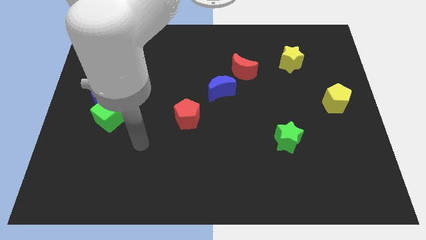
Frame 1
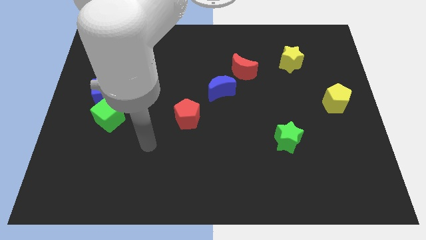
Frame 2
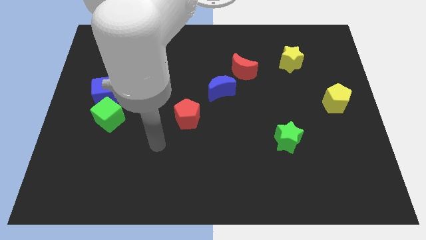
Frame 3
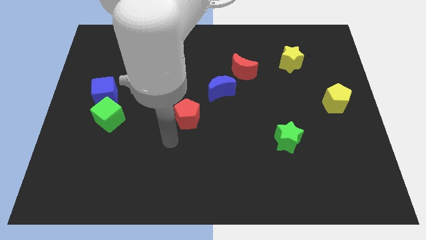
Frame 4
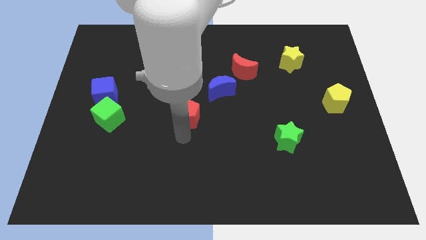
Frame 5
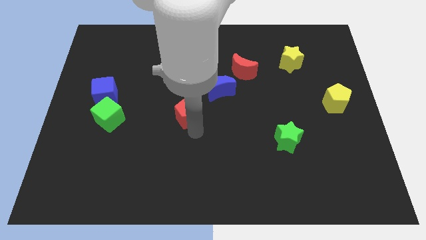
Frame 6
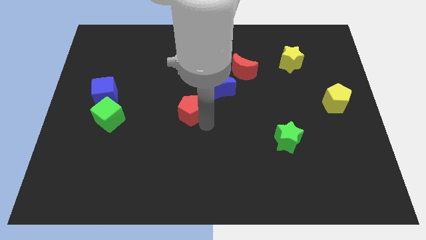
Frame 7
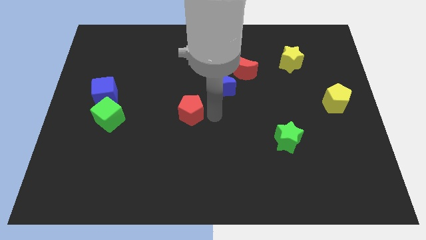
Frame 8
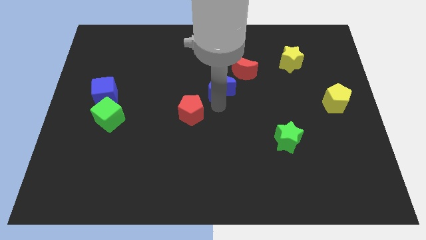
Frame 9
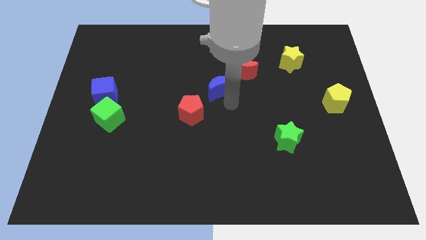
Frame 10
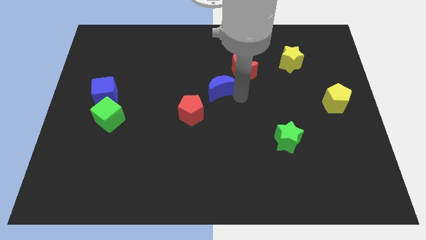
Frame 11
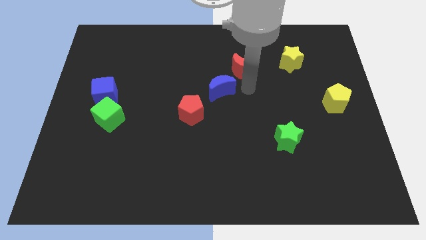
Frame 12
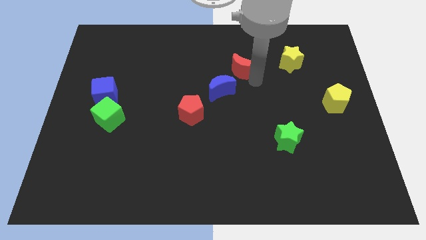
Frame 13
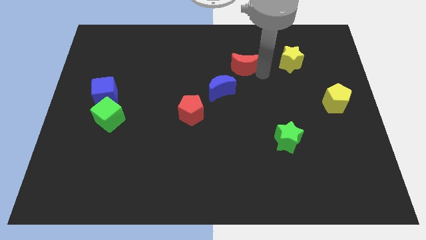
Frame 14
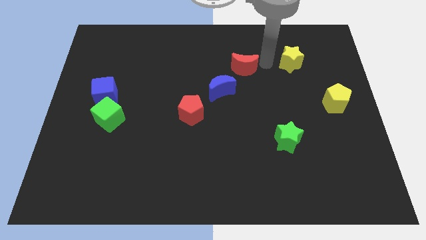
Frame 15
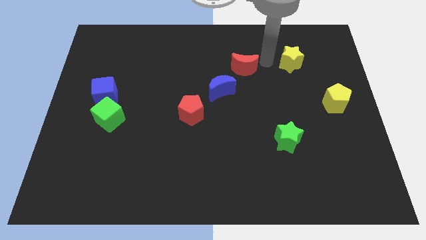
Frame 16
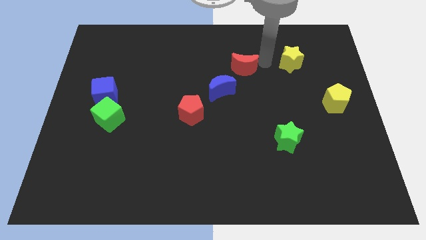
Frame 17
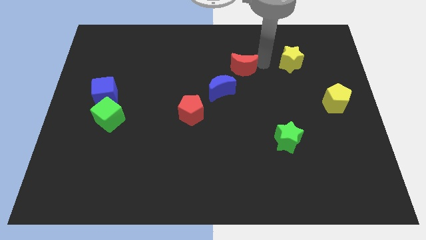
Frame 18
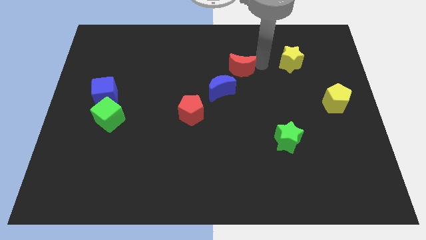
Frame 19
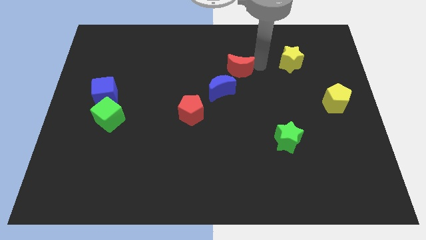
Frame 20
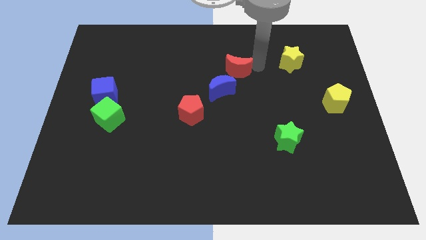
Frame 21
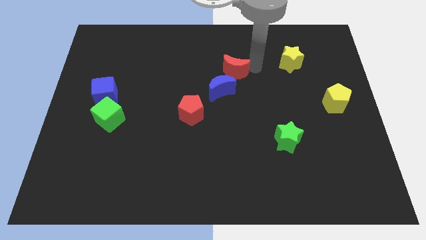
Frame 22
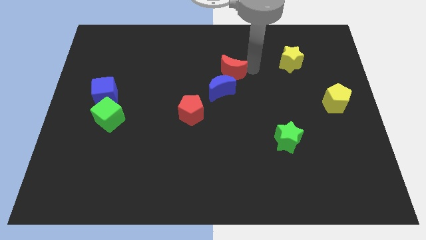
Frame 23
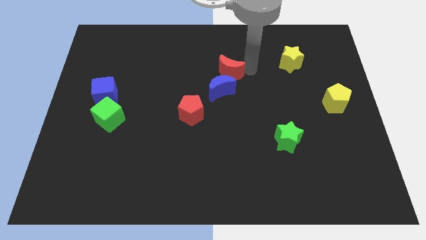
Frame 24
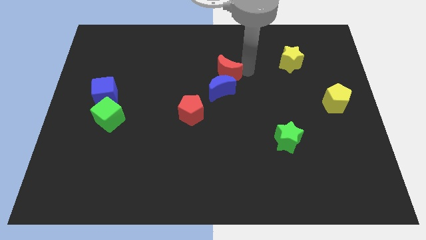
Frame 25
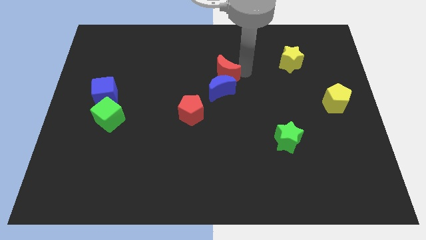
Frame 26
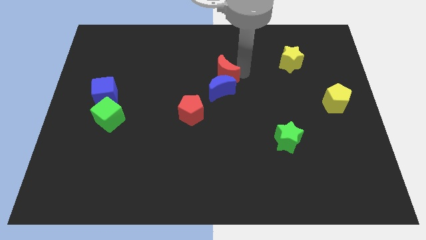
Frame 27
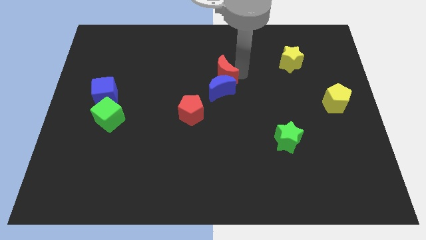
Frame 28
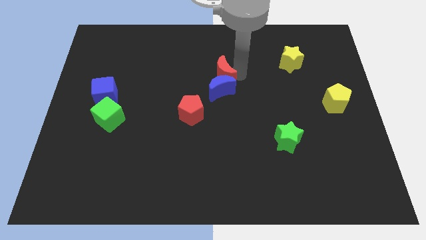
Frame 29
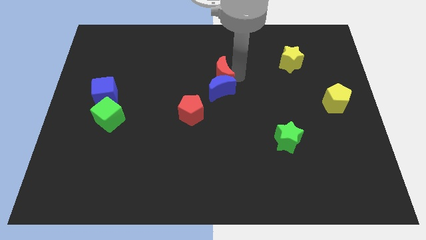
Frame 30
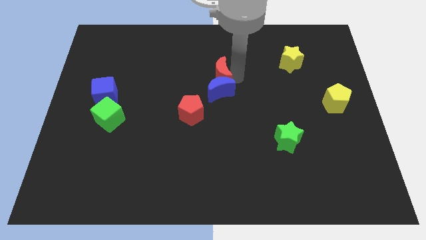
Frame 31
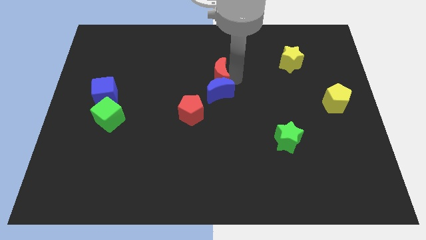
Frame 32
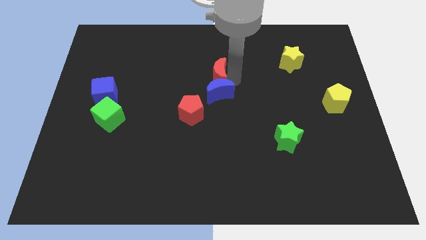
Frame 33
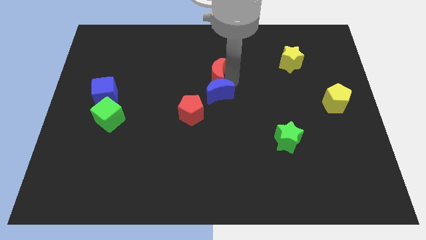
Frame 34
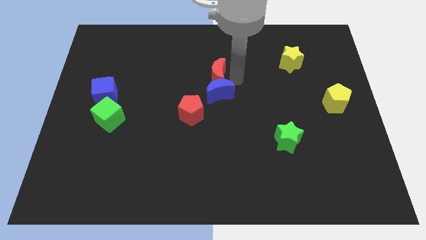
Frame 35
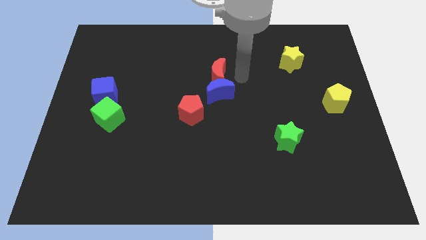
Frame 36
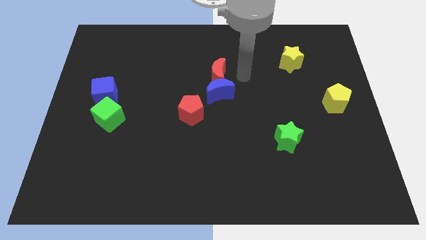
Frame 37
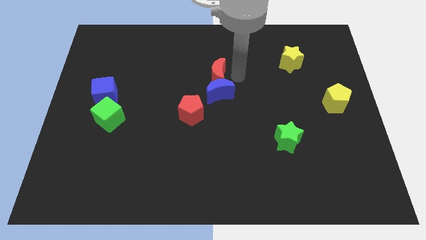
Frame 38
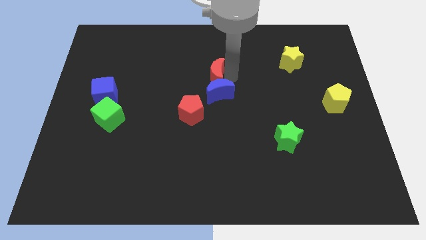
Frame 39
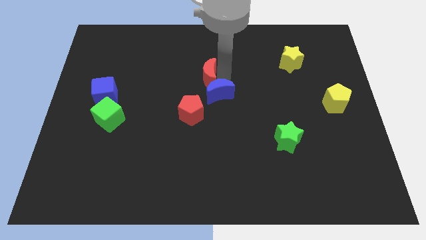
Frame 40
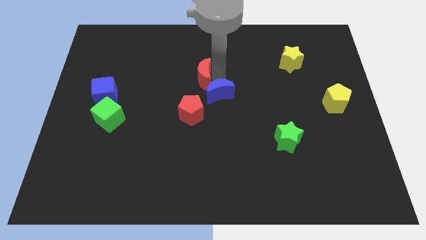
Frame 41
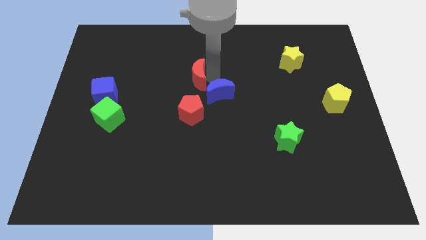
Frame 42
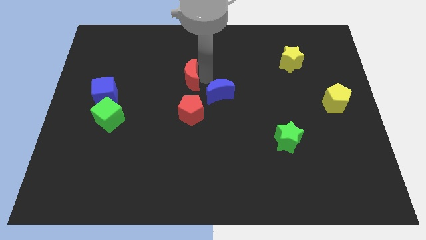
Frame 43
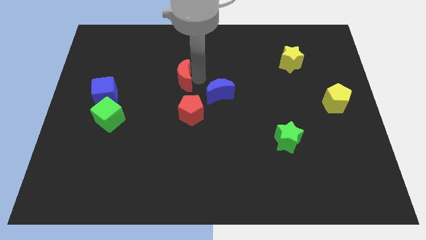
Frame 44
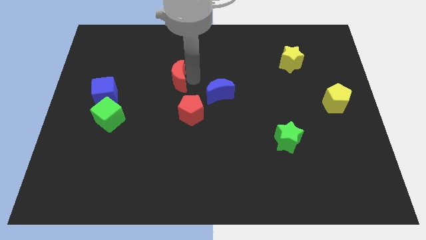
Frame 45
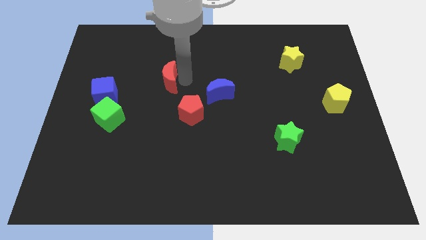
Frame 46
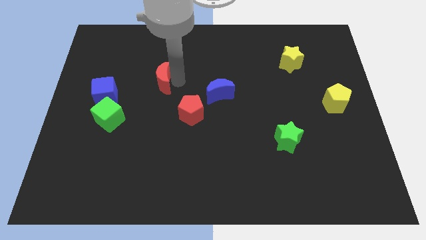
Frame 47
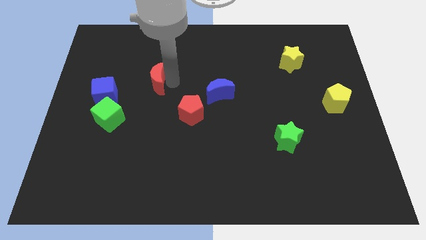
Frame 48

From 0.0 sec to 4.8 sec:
move the red moon left

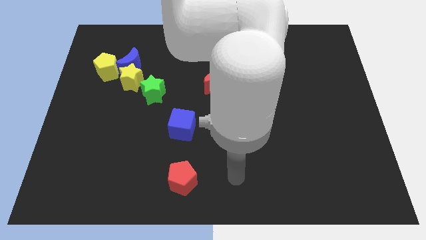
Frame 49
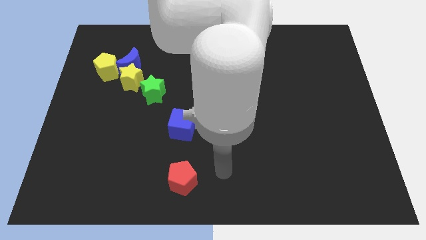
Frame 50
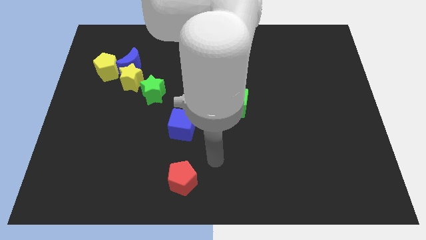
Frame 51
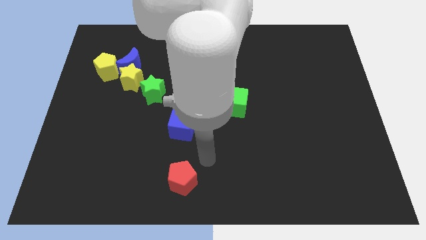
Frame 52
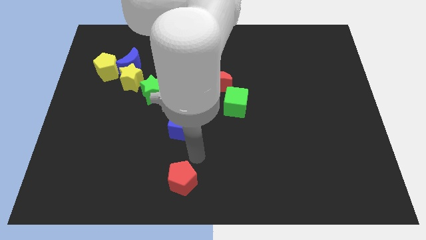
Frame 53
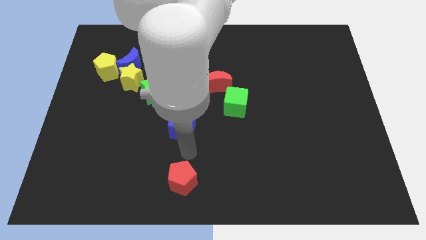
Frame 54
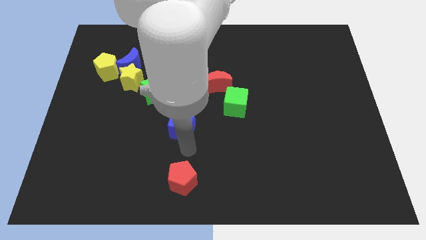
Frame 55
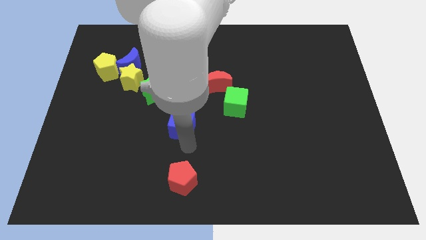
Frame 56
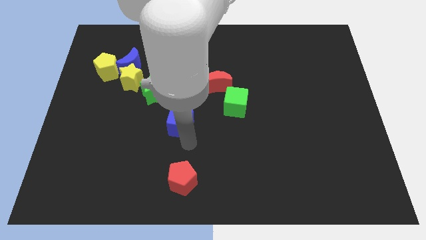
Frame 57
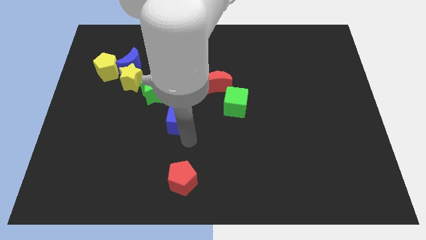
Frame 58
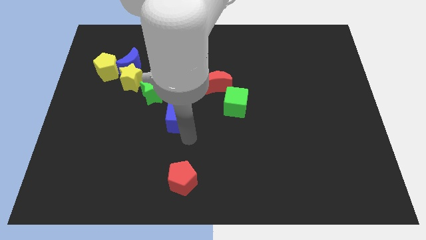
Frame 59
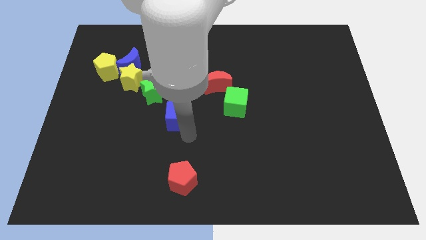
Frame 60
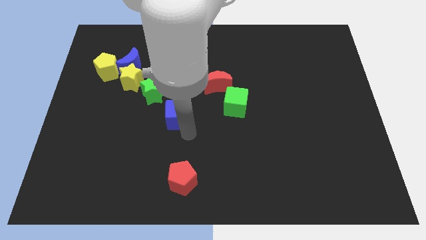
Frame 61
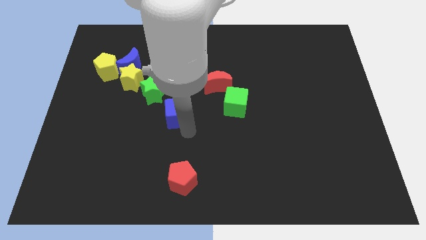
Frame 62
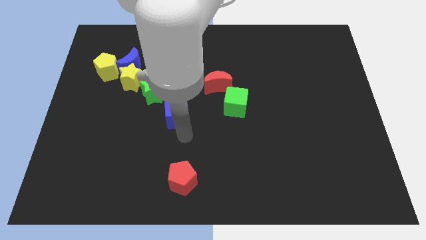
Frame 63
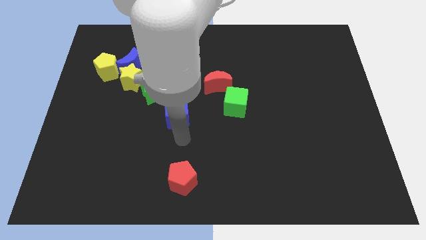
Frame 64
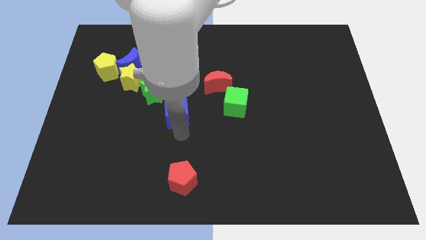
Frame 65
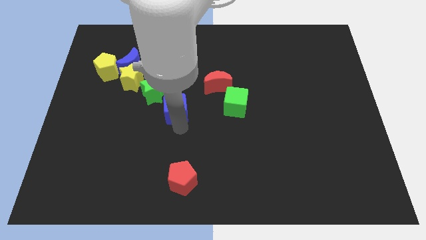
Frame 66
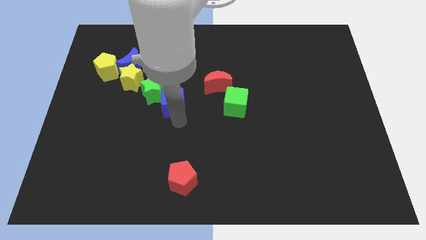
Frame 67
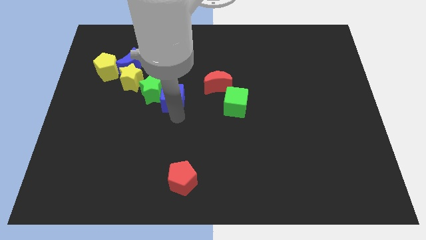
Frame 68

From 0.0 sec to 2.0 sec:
move the blue cube slightly upwards

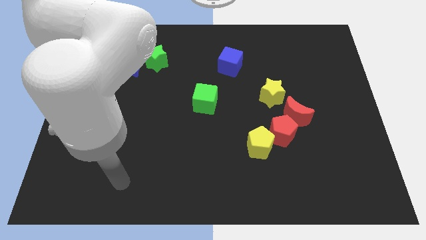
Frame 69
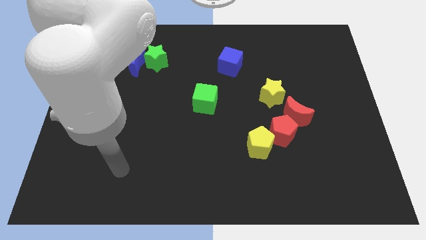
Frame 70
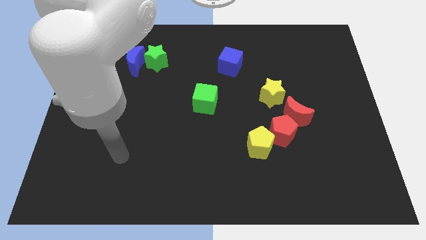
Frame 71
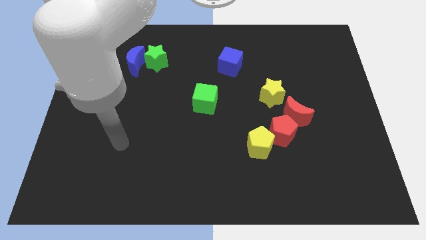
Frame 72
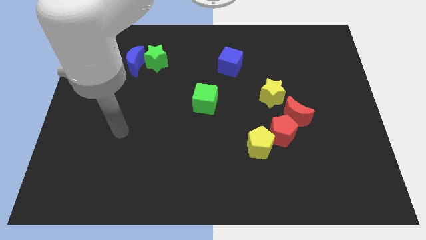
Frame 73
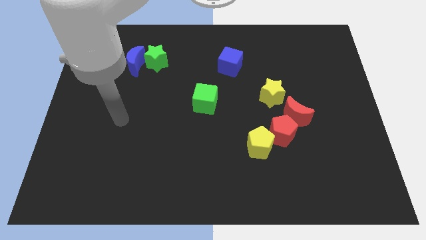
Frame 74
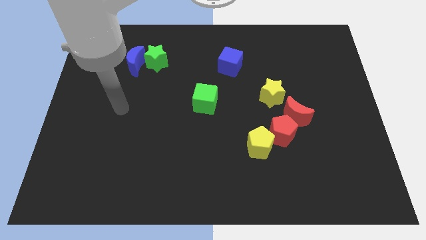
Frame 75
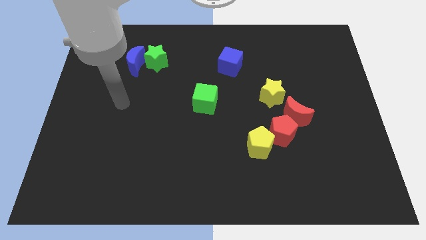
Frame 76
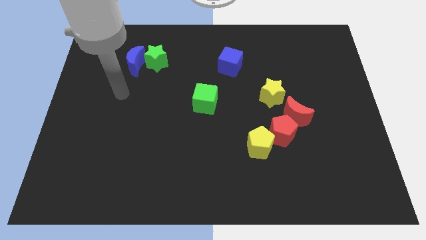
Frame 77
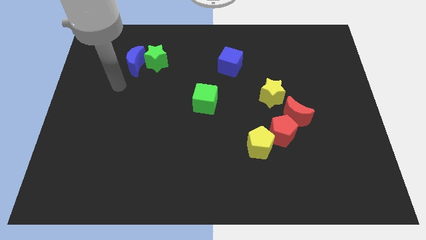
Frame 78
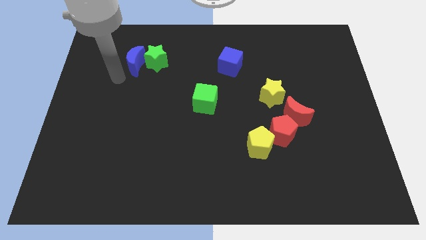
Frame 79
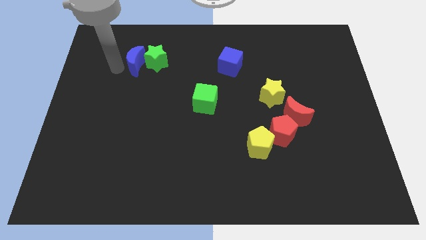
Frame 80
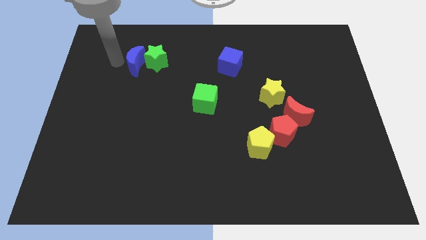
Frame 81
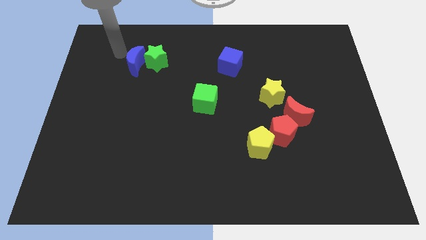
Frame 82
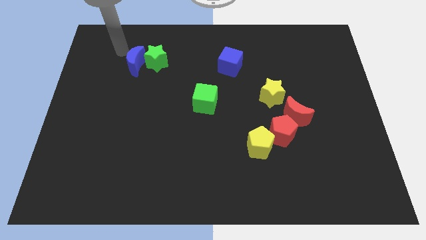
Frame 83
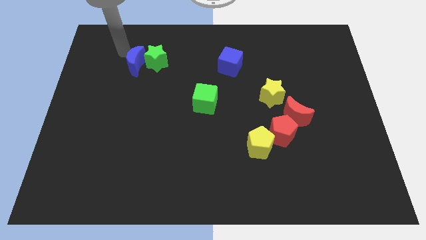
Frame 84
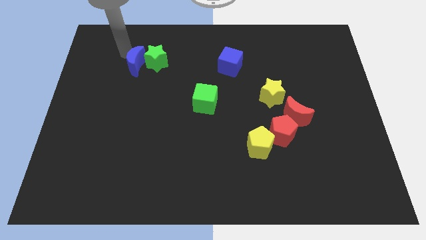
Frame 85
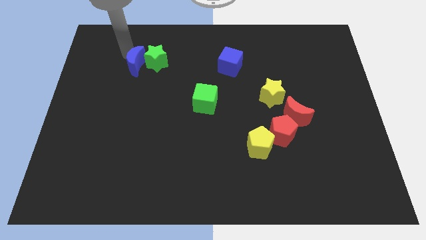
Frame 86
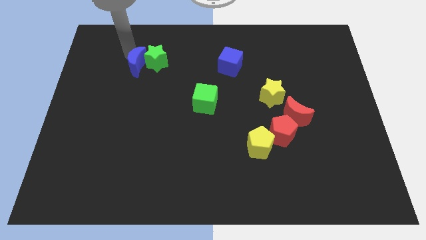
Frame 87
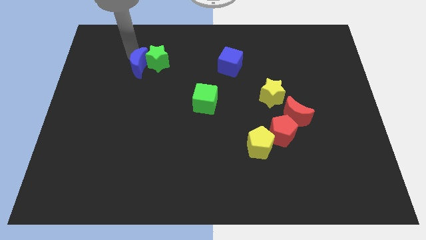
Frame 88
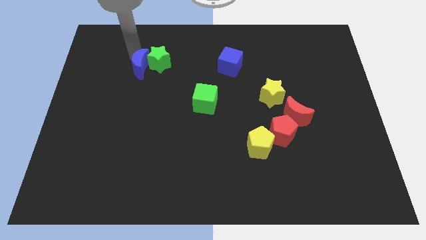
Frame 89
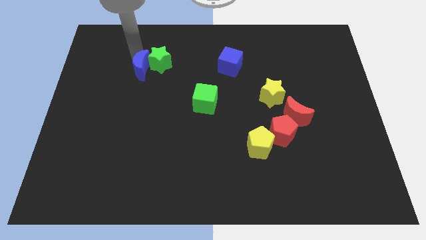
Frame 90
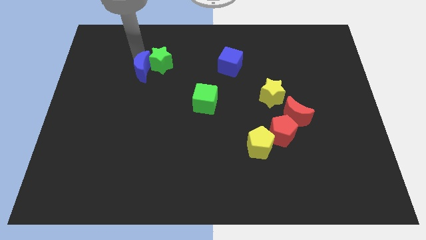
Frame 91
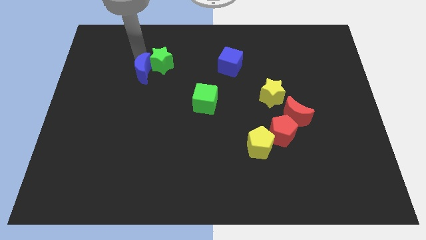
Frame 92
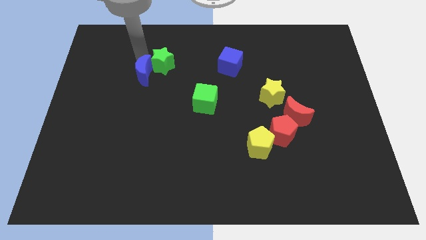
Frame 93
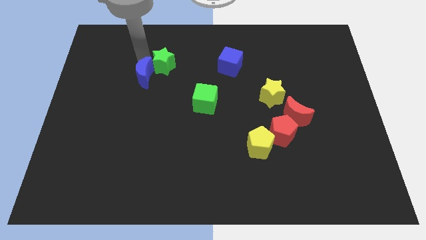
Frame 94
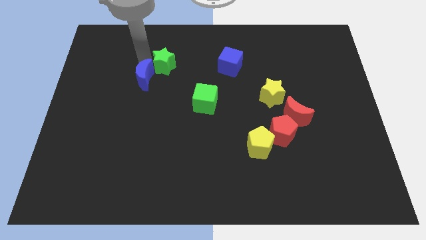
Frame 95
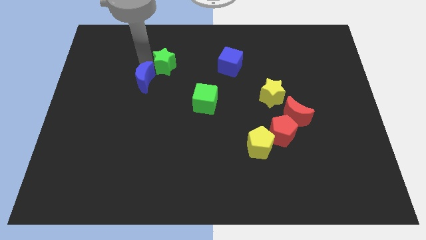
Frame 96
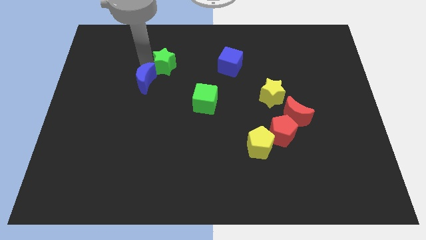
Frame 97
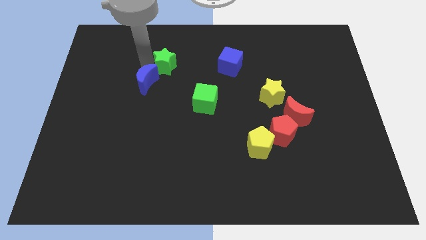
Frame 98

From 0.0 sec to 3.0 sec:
push the blue moon downwards and right a little bit
